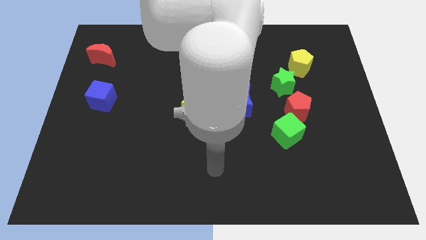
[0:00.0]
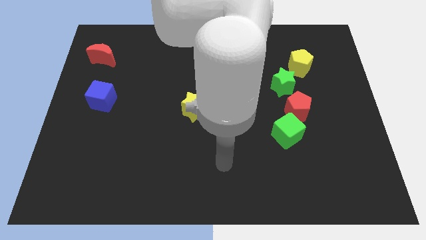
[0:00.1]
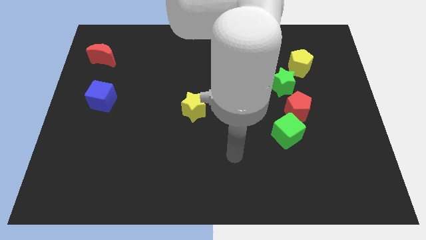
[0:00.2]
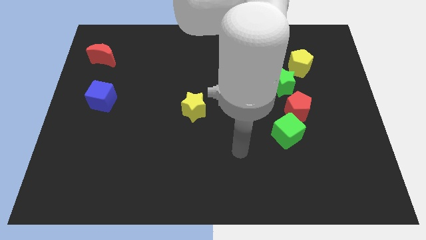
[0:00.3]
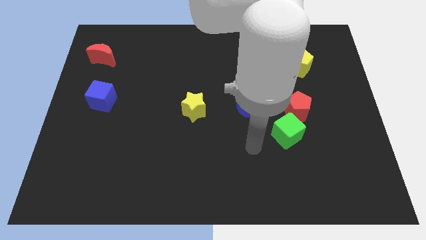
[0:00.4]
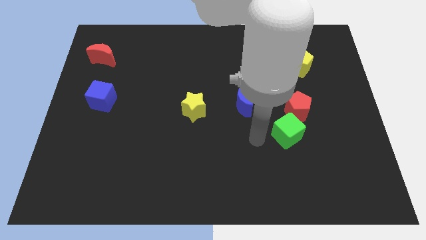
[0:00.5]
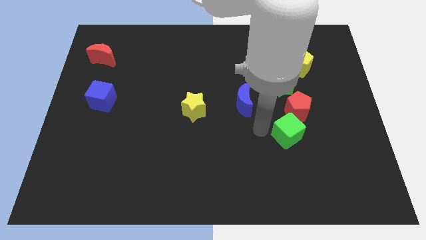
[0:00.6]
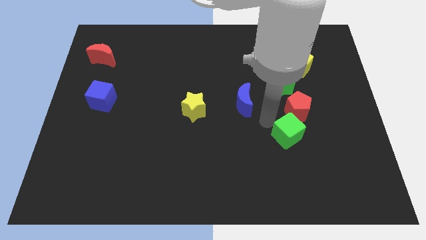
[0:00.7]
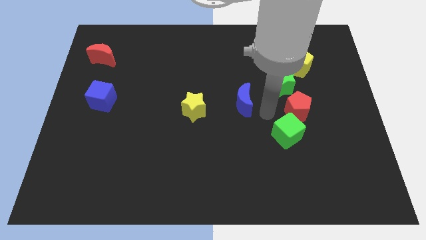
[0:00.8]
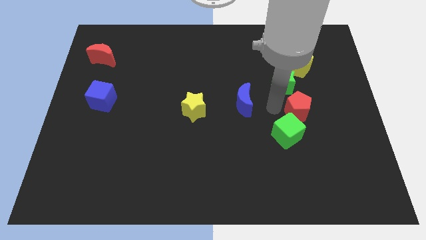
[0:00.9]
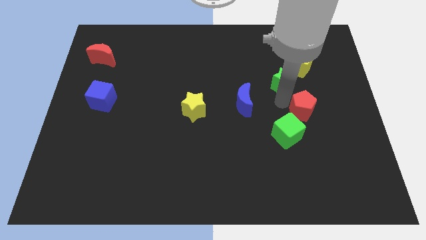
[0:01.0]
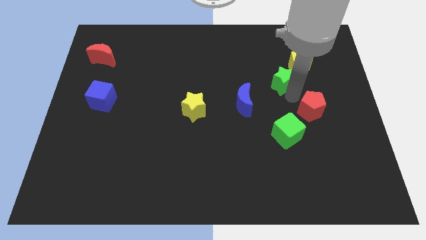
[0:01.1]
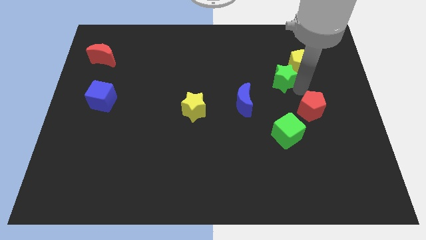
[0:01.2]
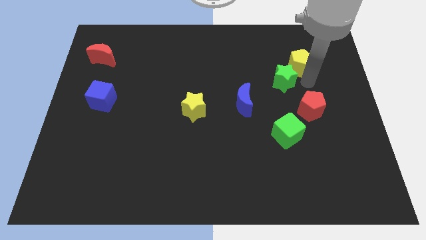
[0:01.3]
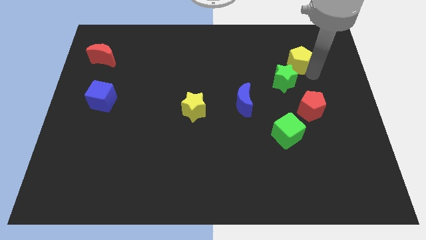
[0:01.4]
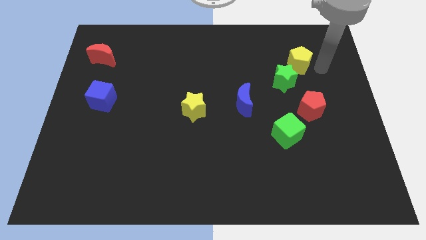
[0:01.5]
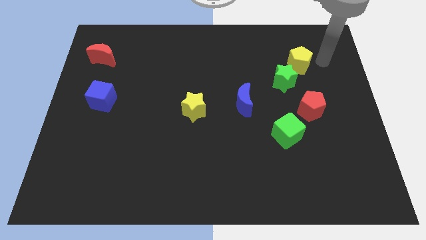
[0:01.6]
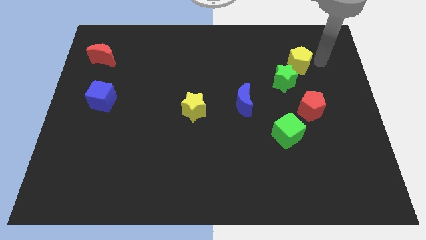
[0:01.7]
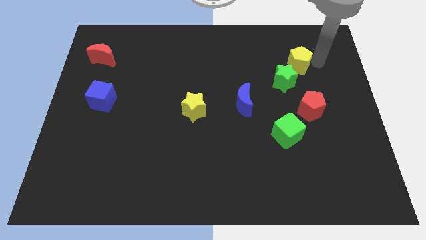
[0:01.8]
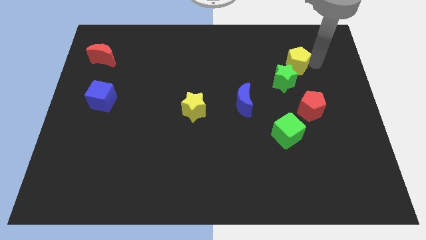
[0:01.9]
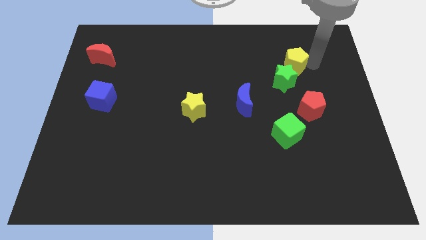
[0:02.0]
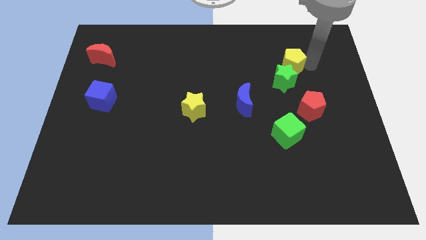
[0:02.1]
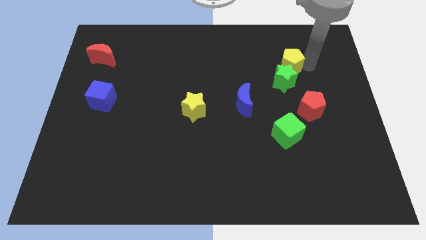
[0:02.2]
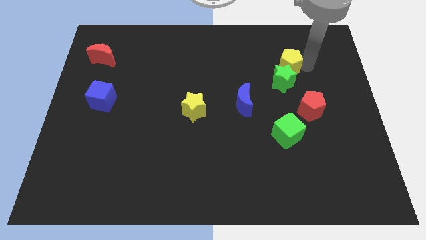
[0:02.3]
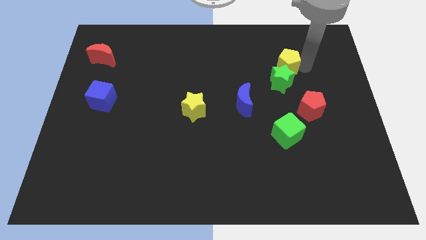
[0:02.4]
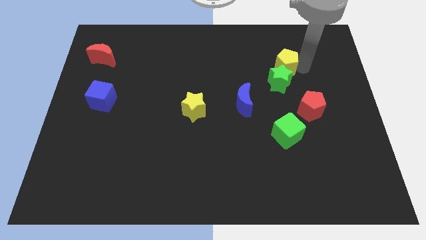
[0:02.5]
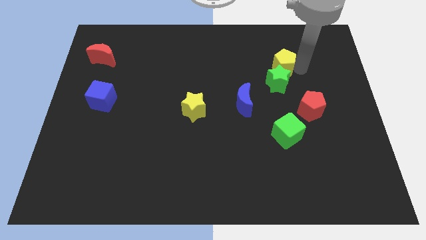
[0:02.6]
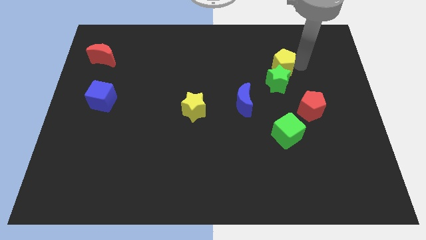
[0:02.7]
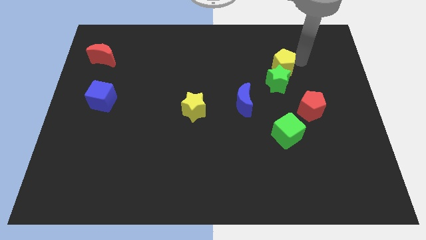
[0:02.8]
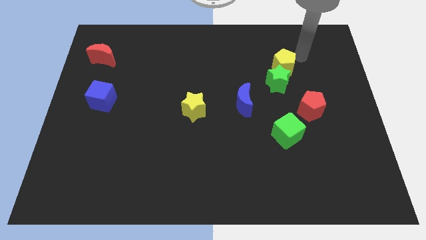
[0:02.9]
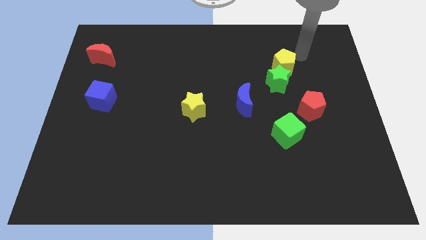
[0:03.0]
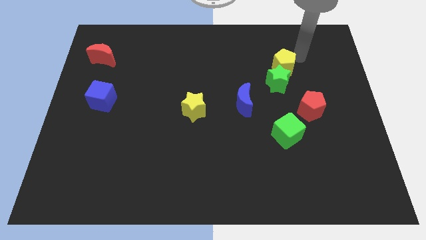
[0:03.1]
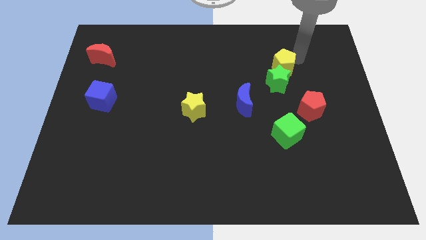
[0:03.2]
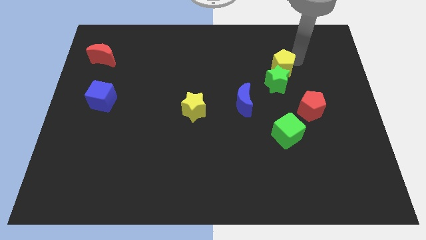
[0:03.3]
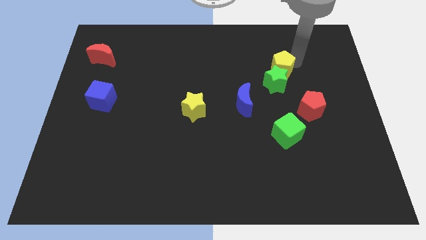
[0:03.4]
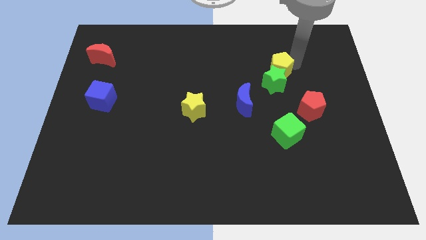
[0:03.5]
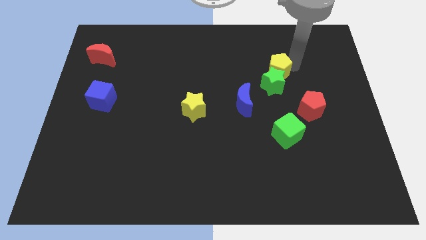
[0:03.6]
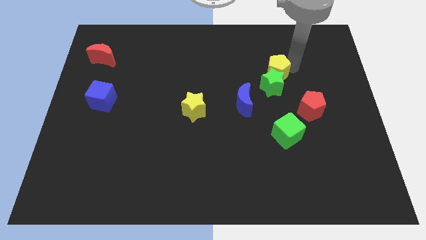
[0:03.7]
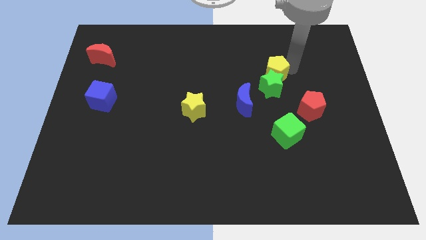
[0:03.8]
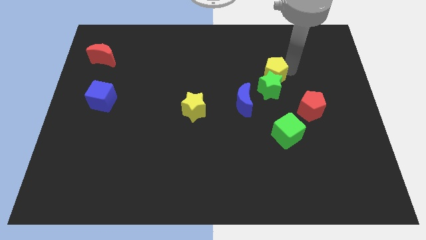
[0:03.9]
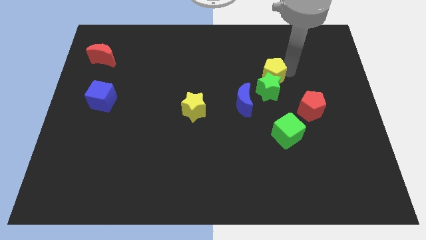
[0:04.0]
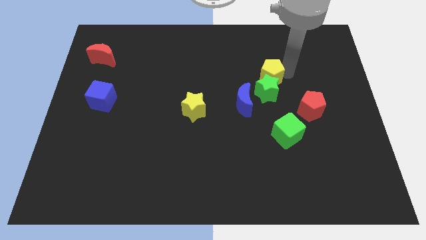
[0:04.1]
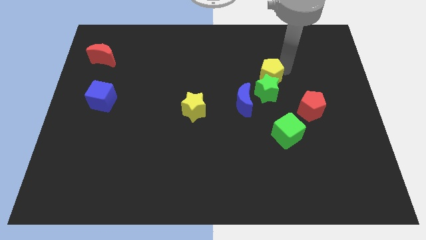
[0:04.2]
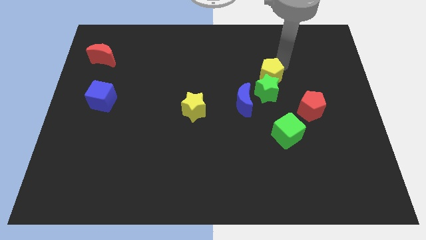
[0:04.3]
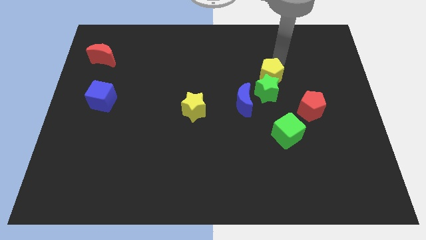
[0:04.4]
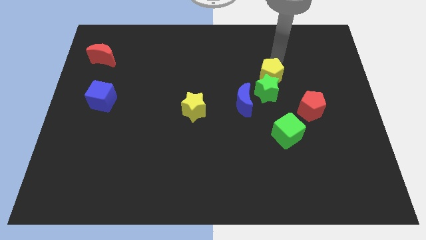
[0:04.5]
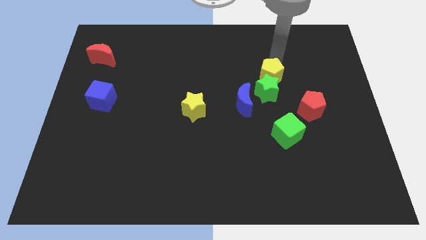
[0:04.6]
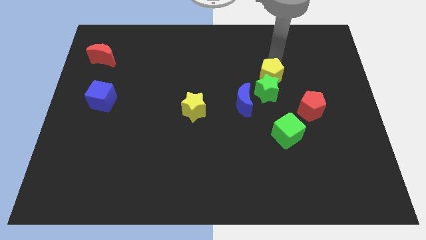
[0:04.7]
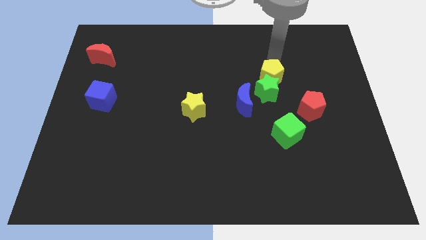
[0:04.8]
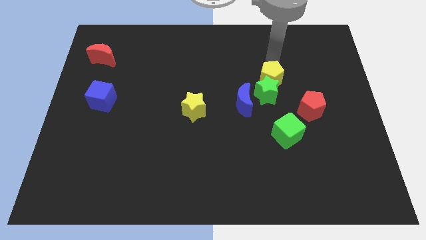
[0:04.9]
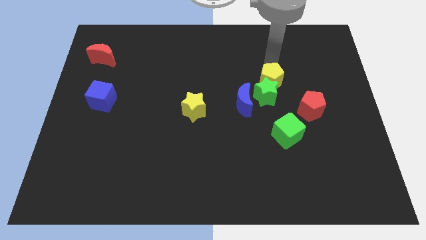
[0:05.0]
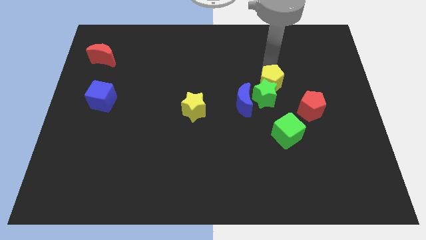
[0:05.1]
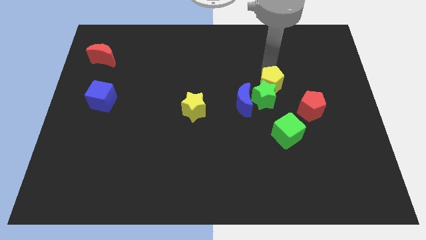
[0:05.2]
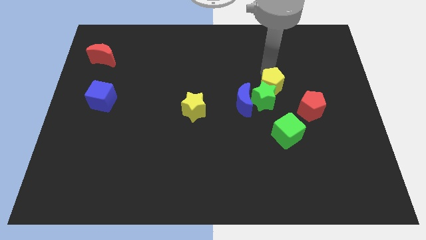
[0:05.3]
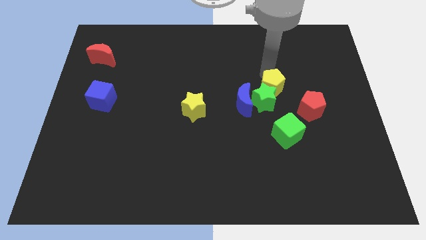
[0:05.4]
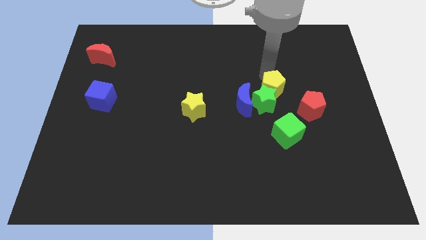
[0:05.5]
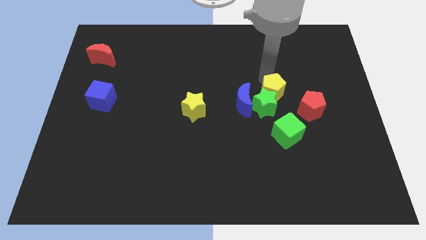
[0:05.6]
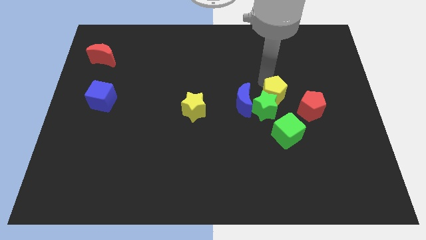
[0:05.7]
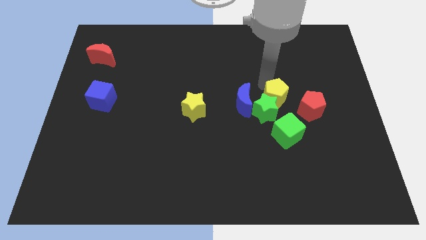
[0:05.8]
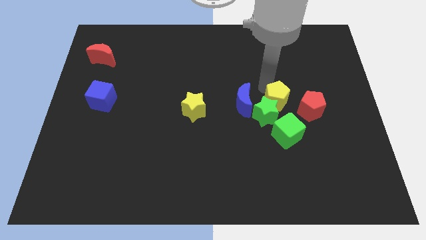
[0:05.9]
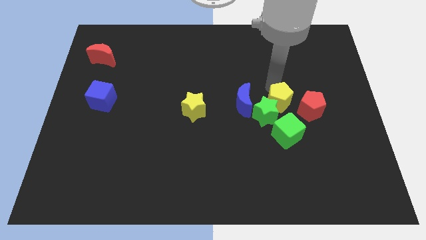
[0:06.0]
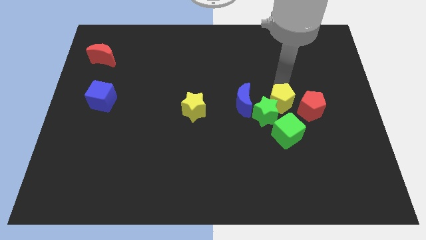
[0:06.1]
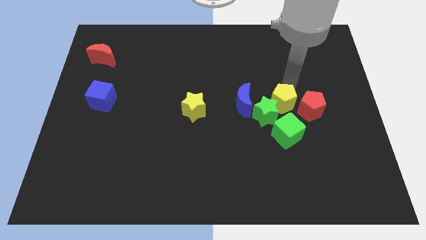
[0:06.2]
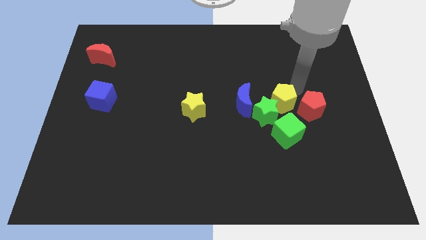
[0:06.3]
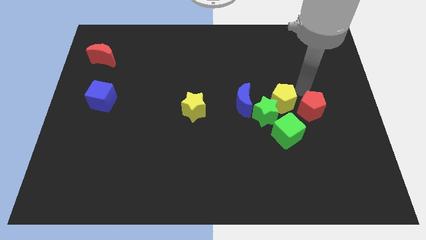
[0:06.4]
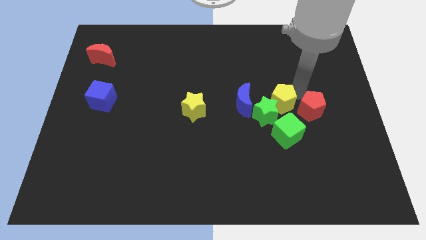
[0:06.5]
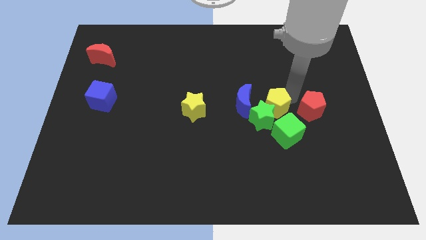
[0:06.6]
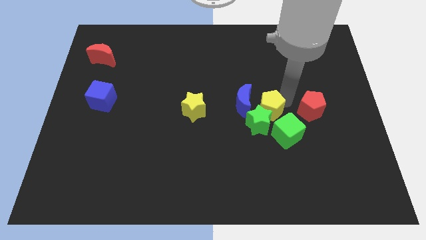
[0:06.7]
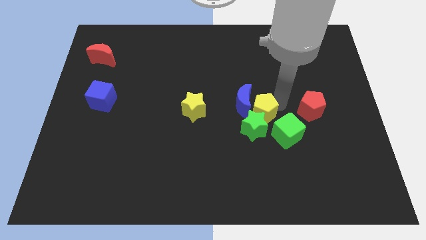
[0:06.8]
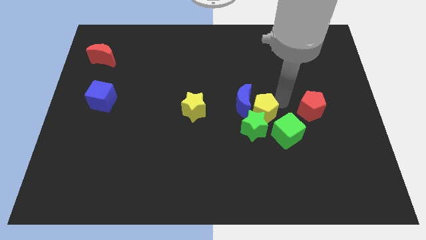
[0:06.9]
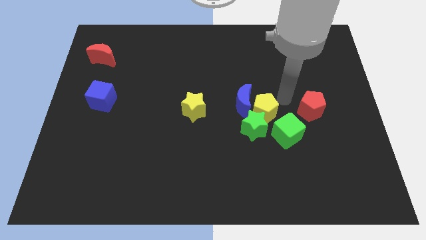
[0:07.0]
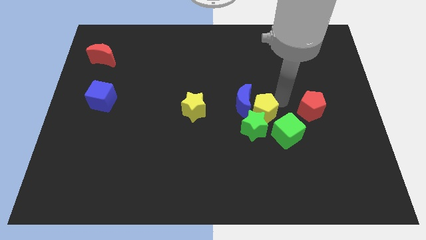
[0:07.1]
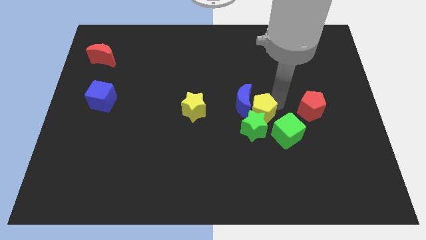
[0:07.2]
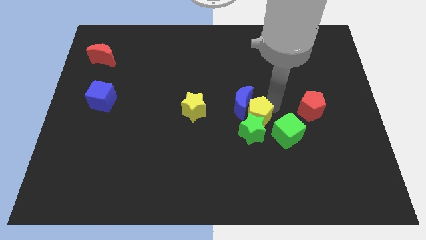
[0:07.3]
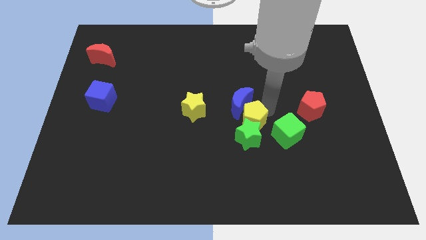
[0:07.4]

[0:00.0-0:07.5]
slide the yellow pentagon down and left diagonally

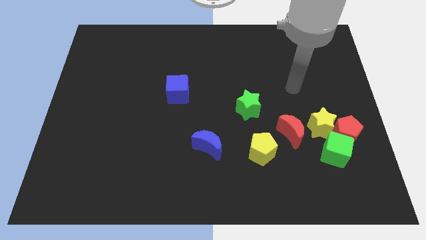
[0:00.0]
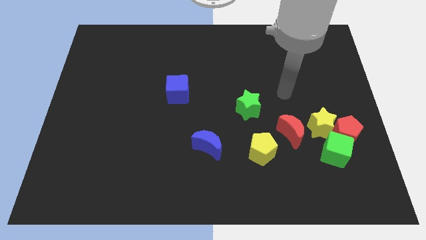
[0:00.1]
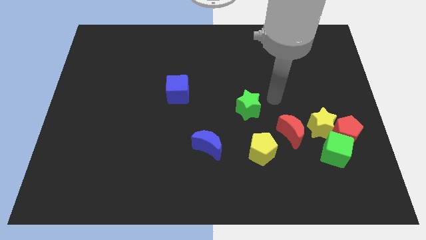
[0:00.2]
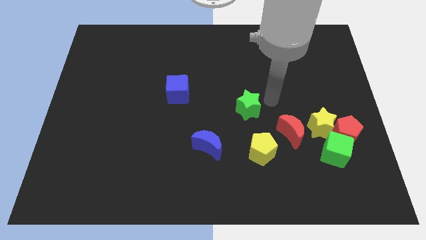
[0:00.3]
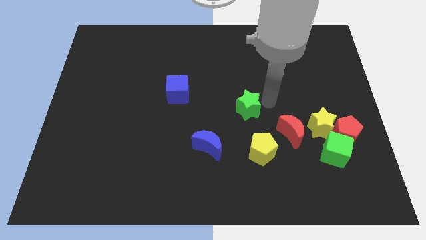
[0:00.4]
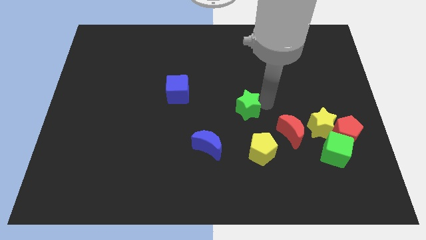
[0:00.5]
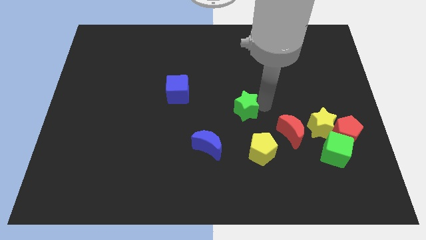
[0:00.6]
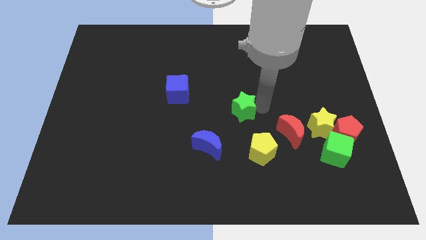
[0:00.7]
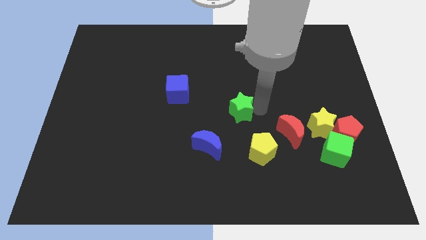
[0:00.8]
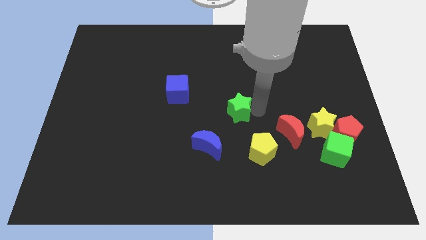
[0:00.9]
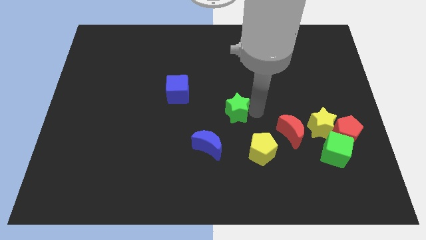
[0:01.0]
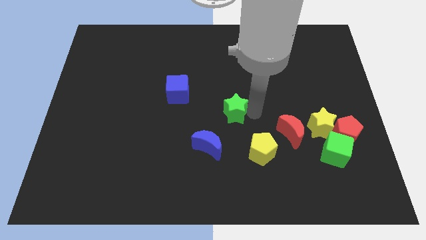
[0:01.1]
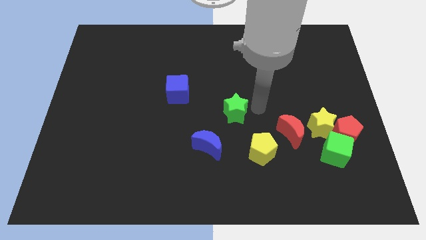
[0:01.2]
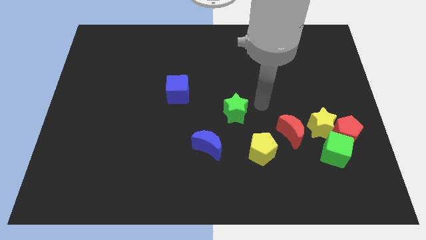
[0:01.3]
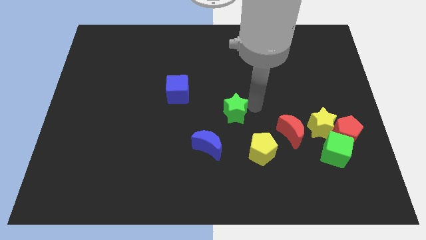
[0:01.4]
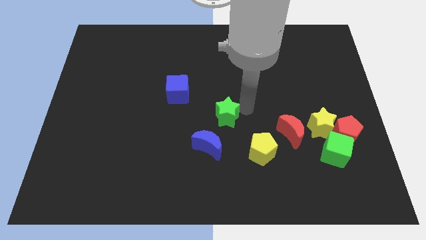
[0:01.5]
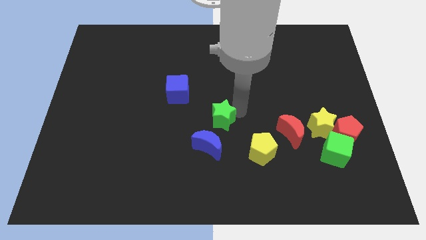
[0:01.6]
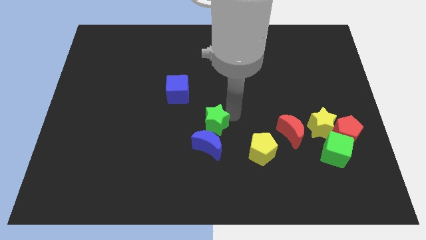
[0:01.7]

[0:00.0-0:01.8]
move the green star a little bit down and to the left
